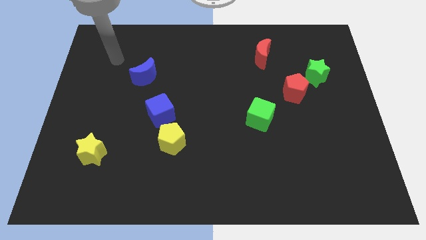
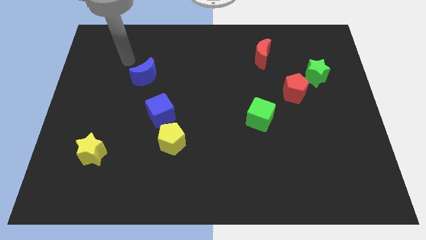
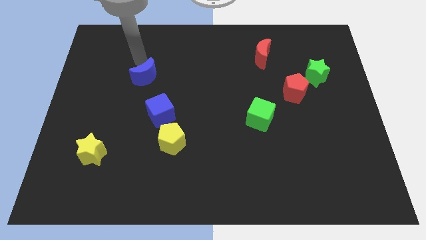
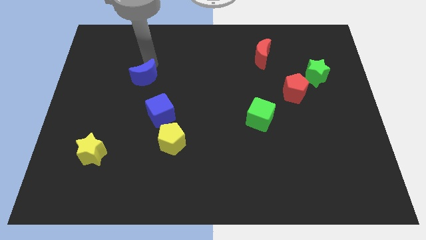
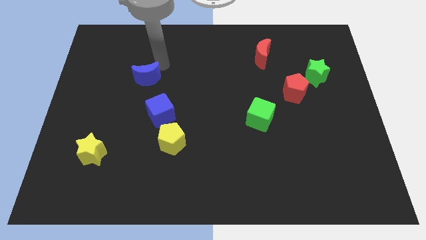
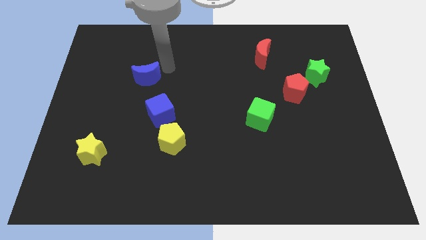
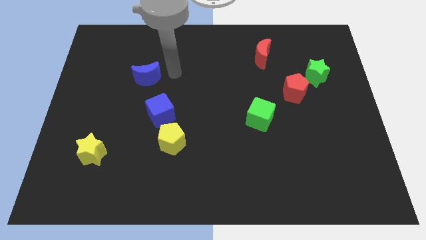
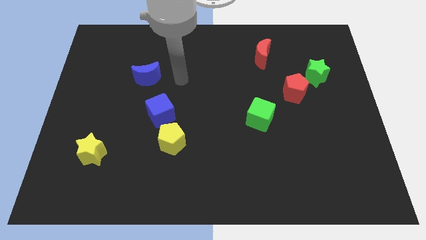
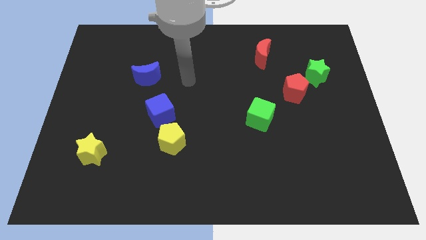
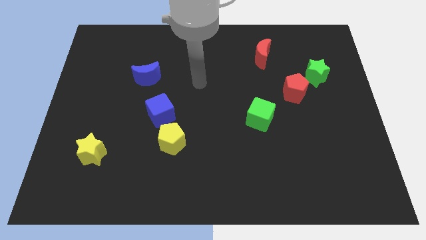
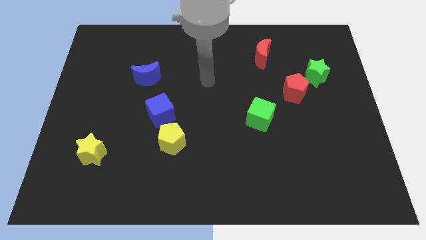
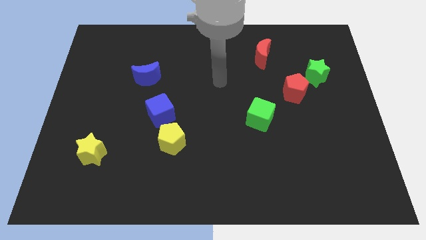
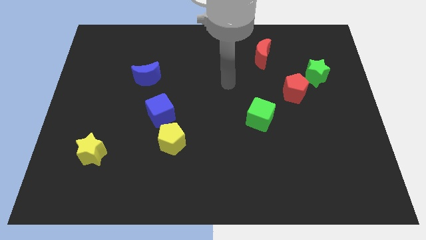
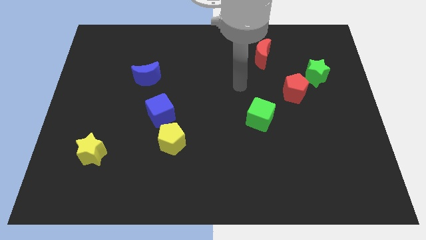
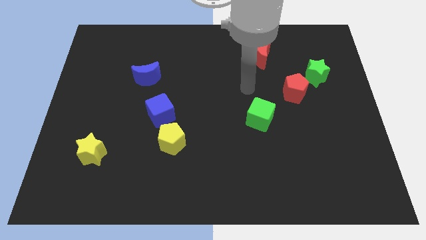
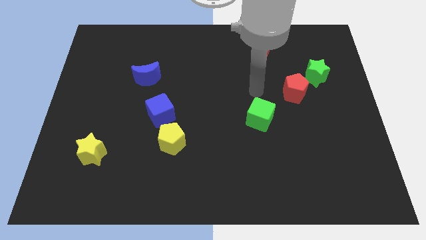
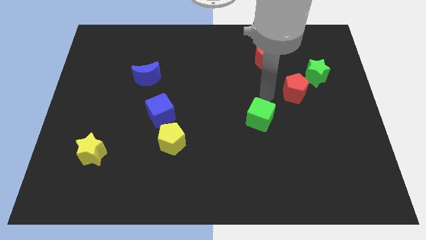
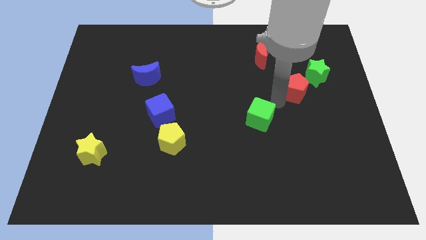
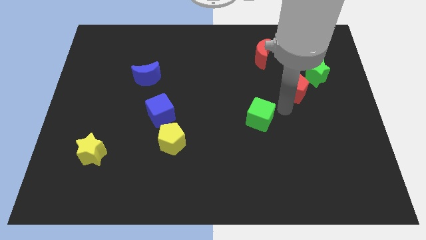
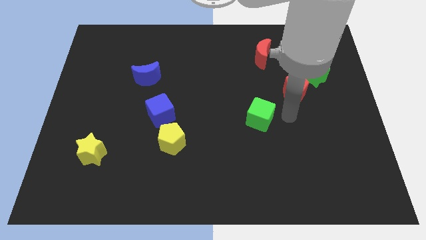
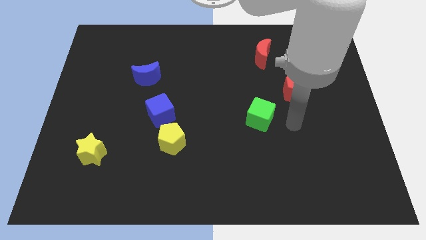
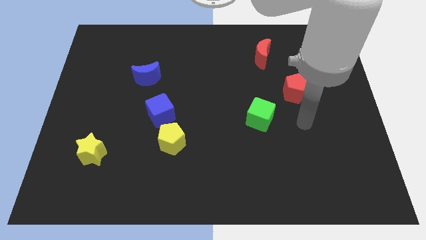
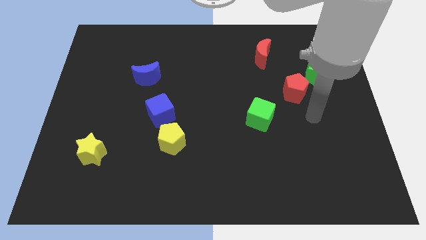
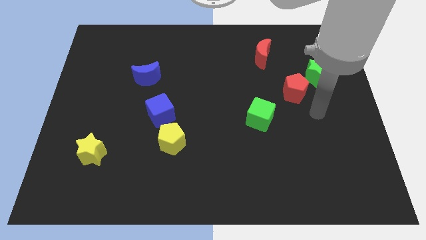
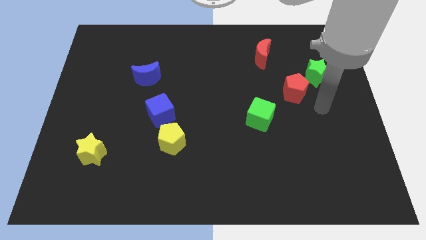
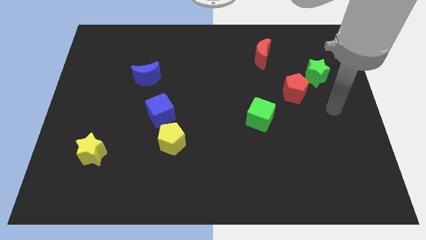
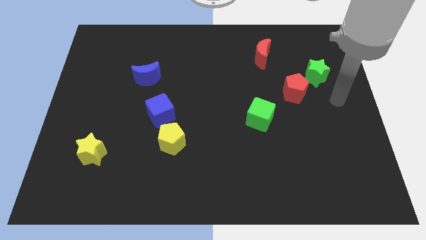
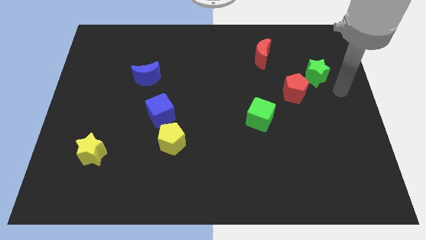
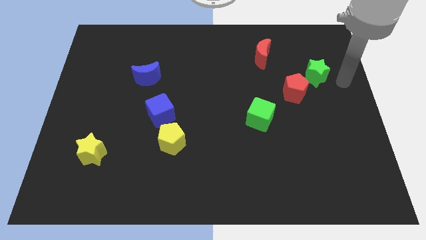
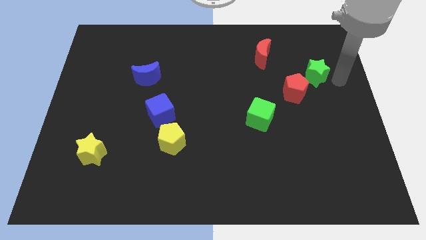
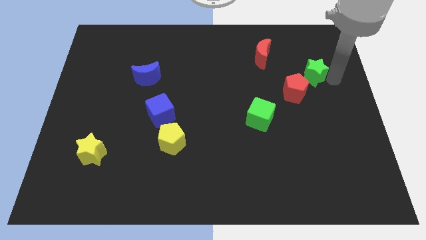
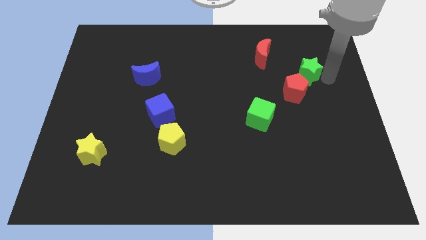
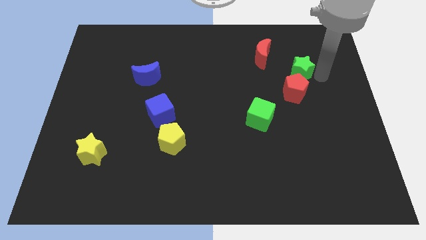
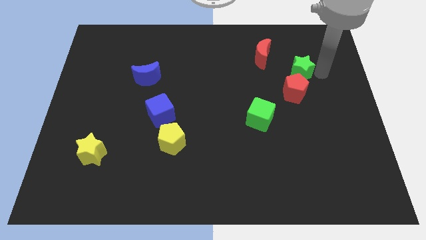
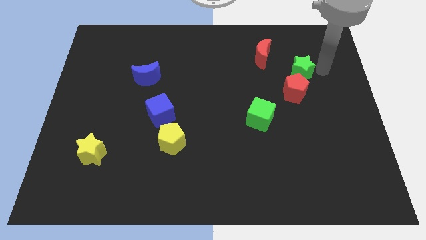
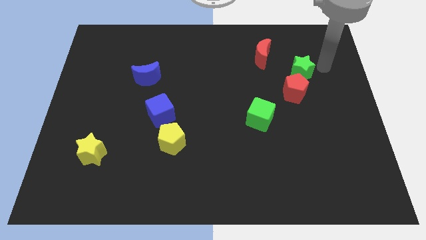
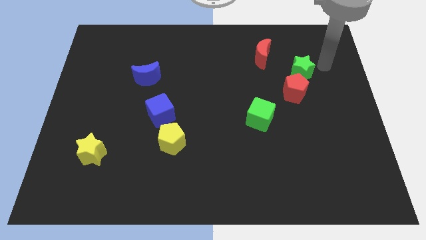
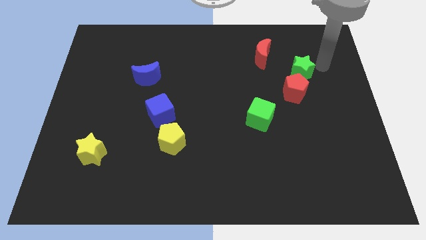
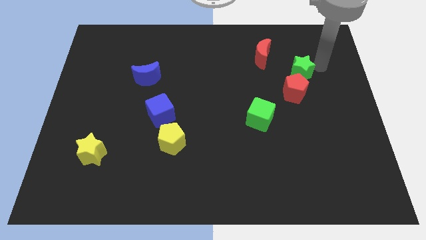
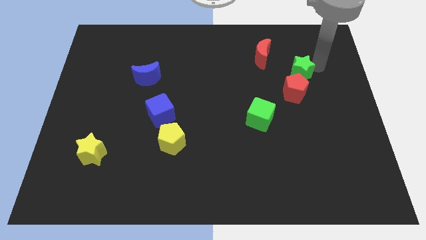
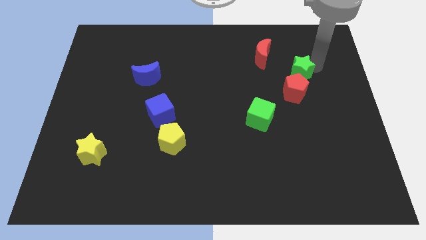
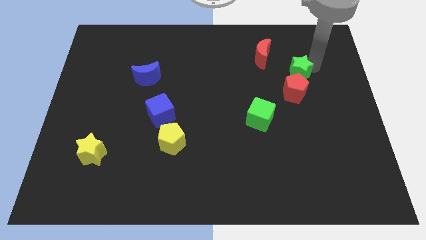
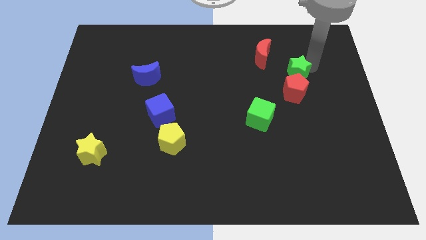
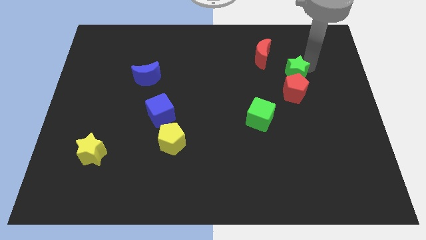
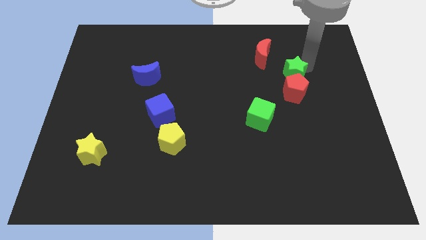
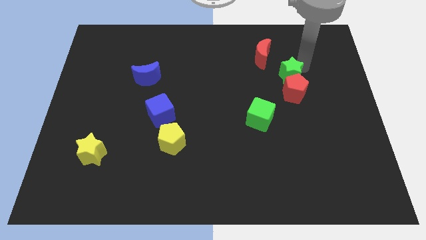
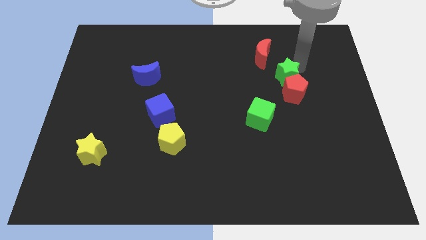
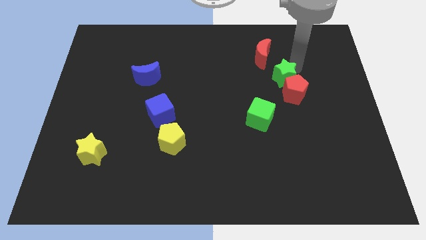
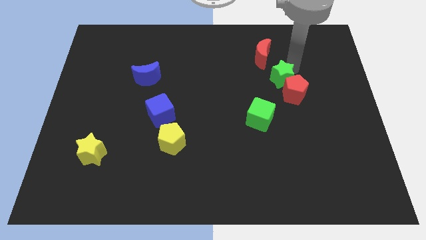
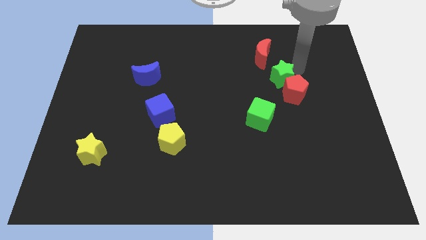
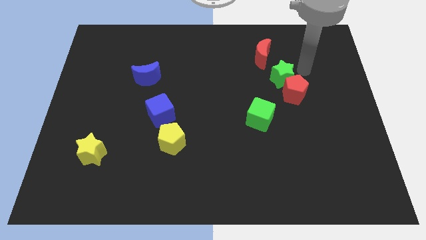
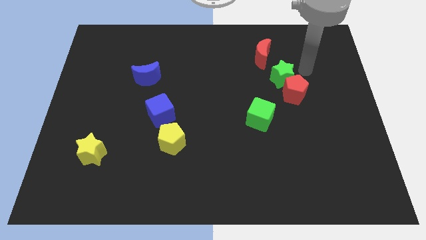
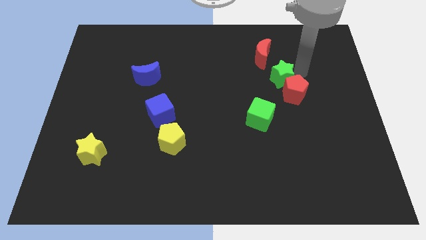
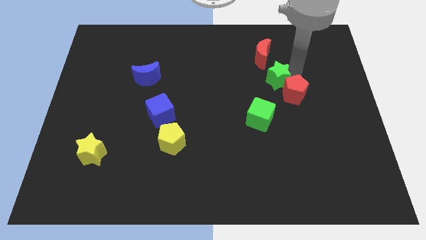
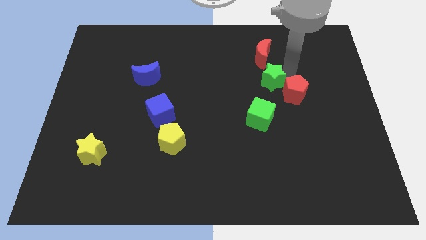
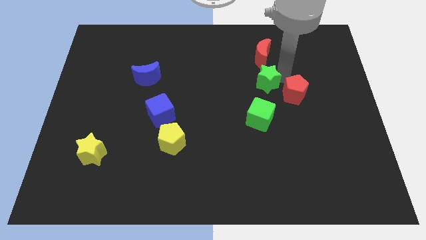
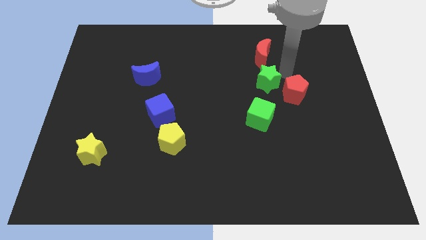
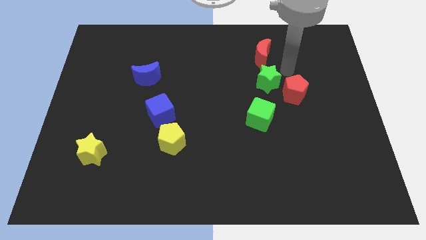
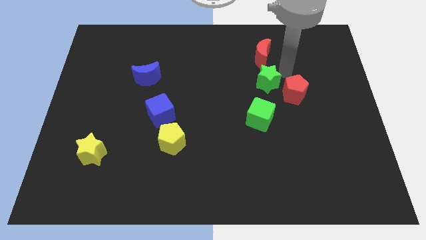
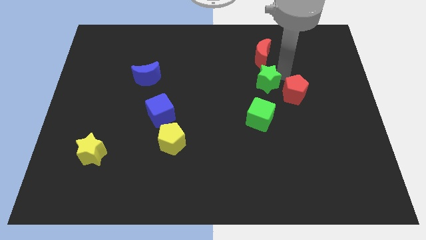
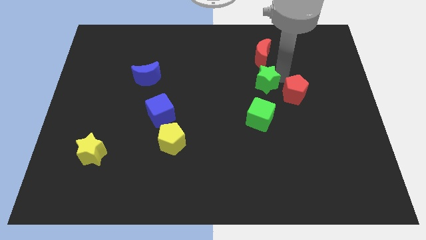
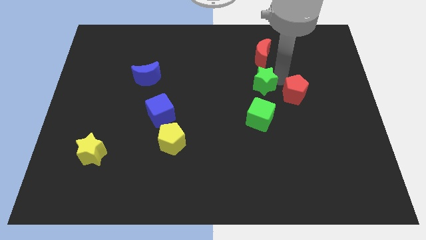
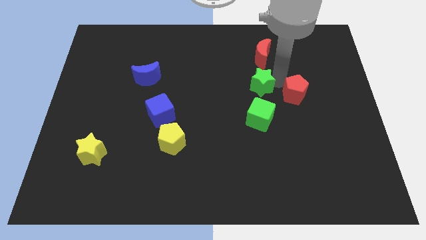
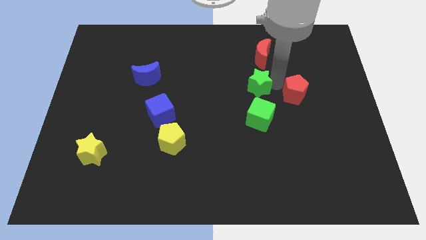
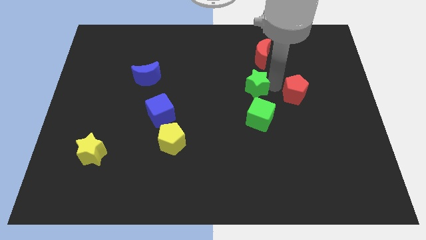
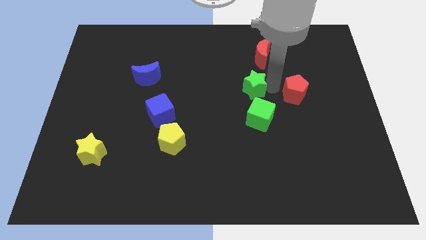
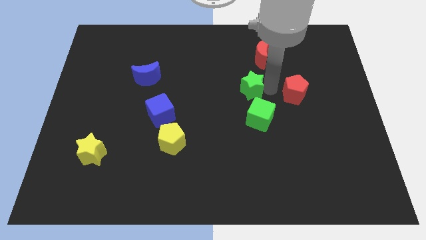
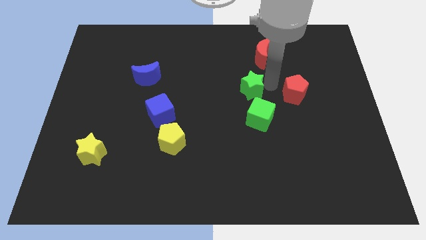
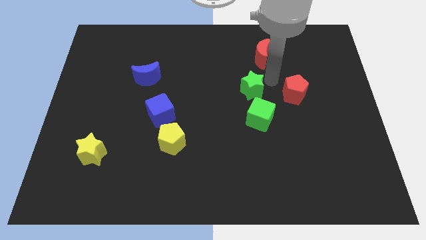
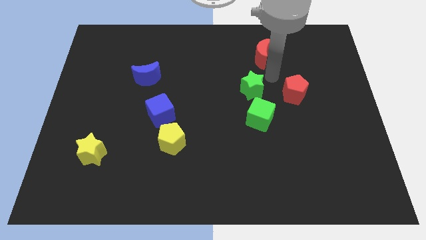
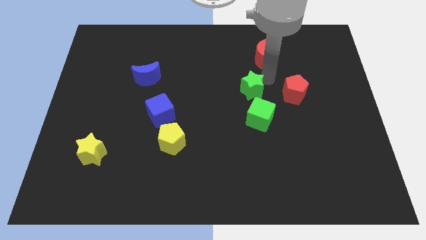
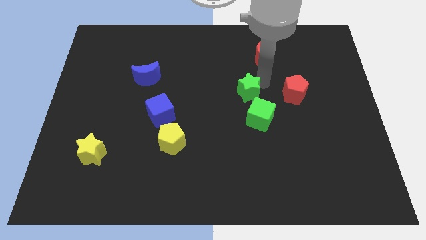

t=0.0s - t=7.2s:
move the green star to the top left side of the green cube
